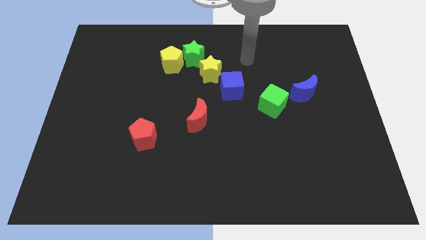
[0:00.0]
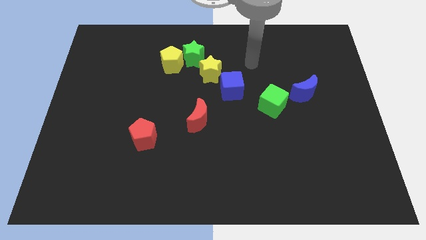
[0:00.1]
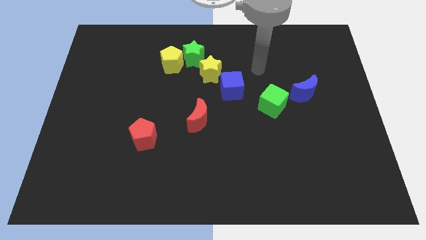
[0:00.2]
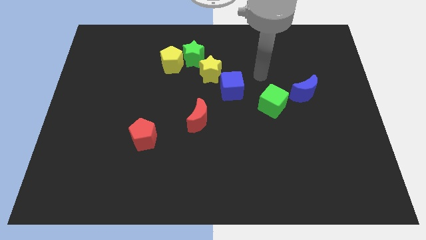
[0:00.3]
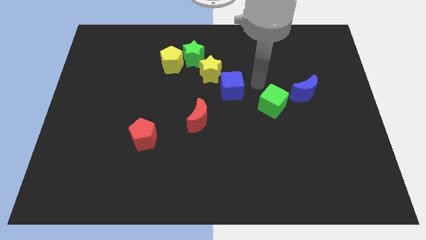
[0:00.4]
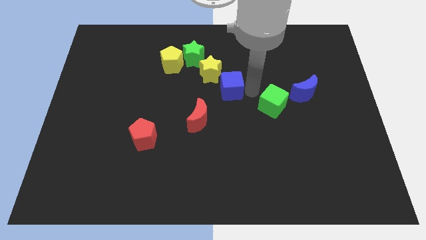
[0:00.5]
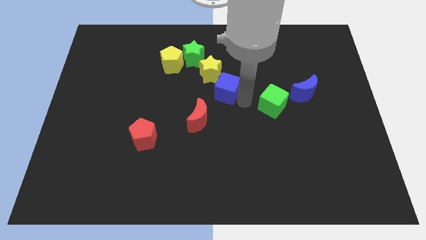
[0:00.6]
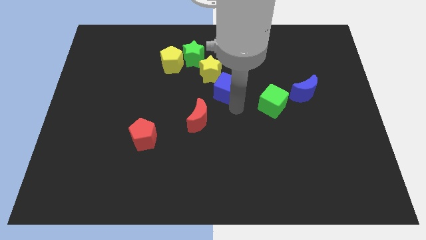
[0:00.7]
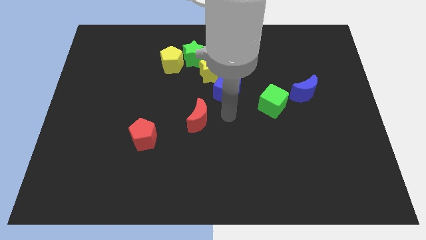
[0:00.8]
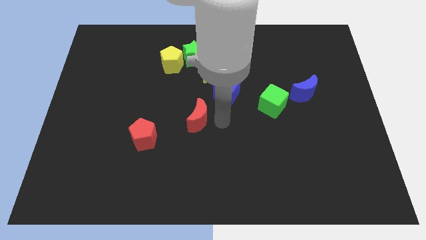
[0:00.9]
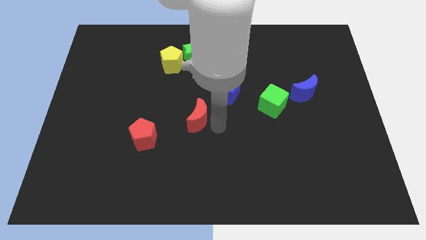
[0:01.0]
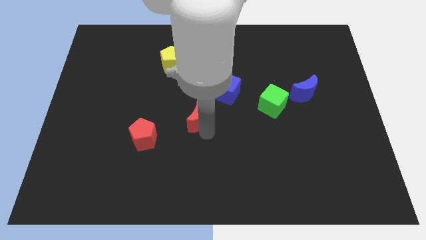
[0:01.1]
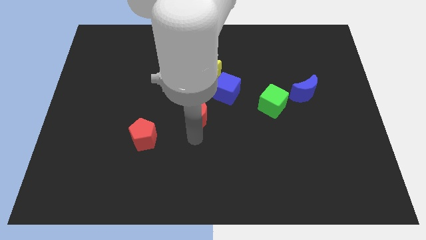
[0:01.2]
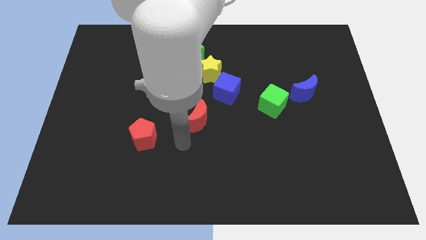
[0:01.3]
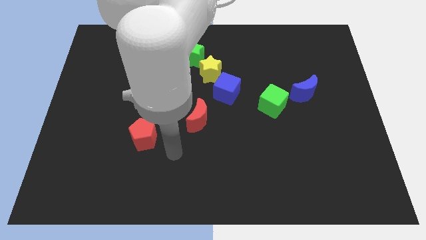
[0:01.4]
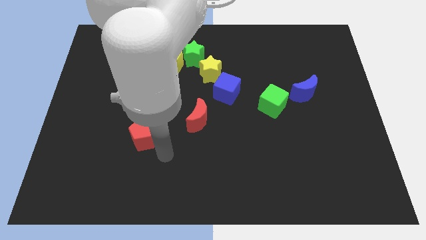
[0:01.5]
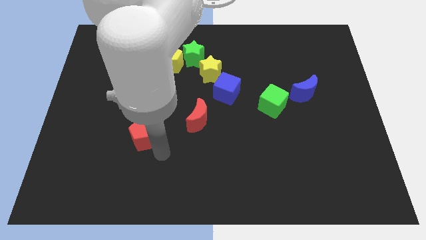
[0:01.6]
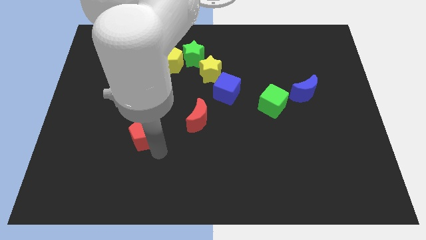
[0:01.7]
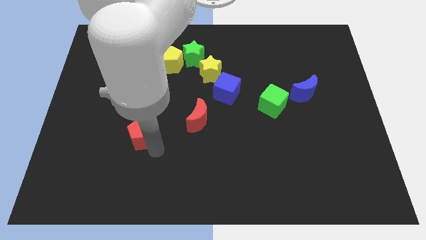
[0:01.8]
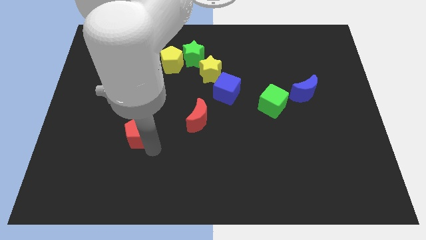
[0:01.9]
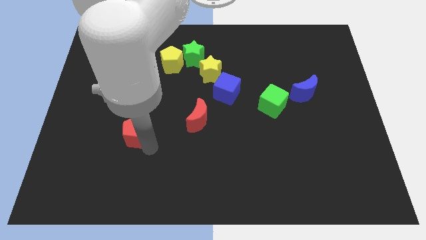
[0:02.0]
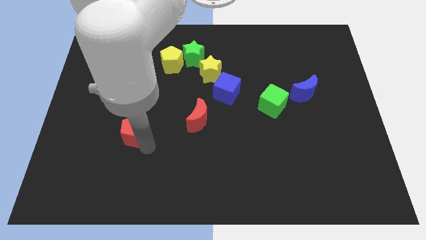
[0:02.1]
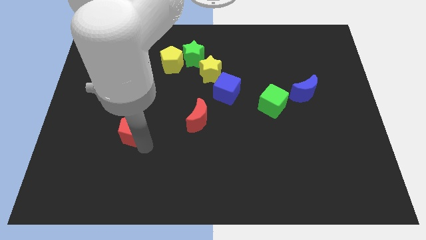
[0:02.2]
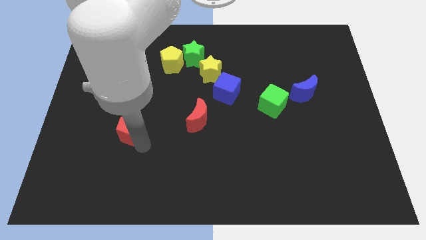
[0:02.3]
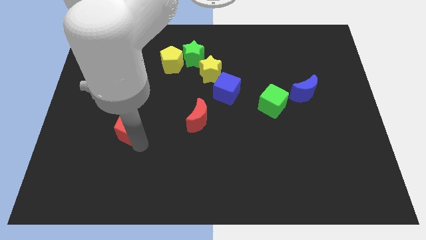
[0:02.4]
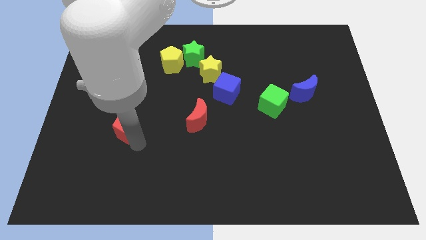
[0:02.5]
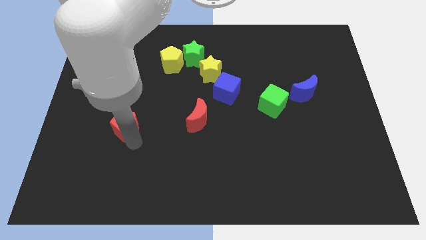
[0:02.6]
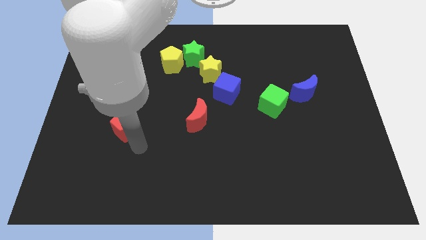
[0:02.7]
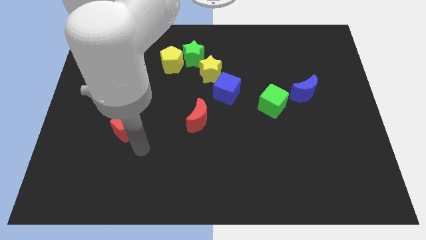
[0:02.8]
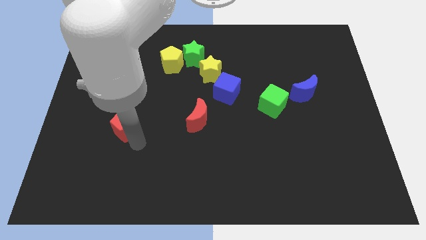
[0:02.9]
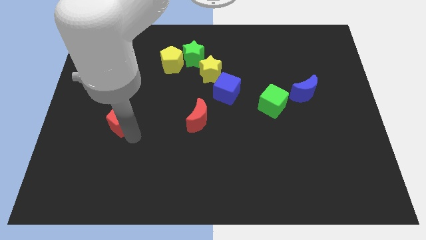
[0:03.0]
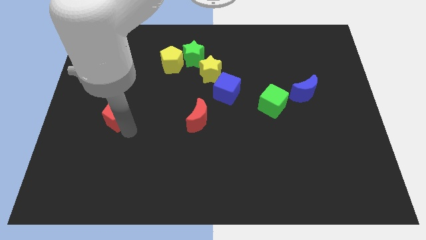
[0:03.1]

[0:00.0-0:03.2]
slightly slide the red pentagon diagonally up and to the left

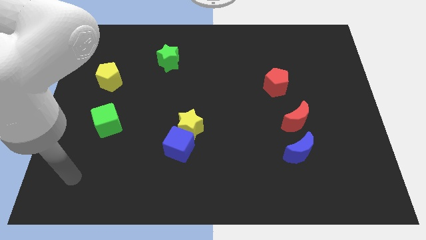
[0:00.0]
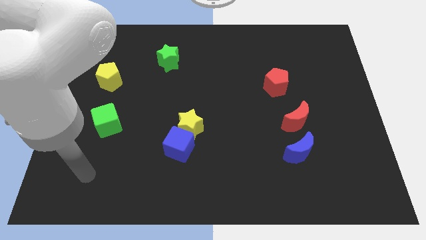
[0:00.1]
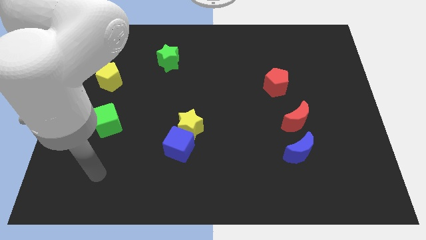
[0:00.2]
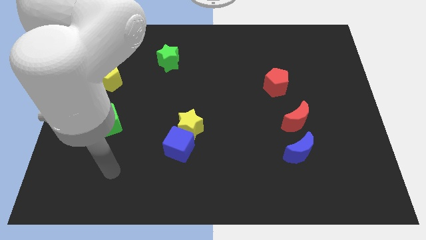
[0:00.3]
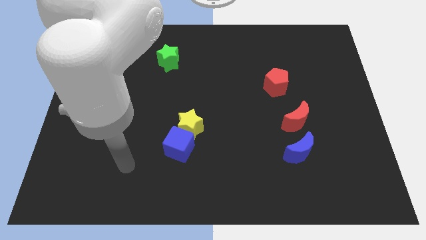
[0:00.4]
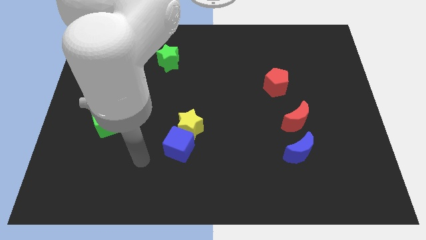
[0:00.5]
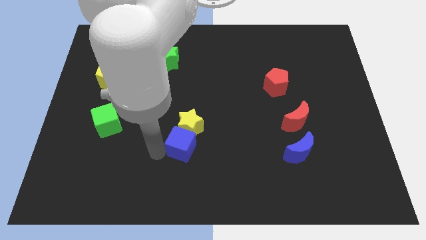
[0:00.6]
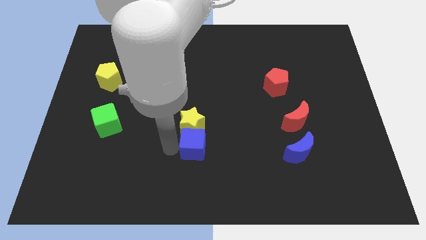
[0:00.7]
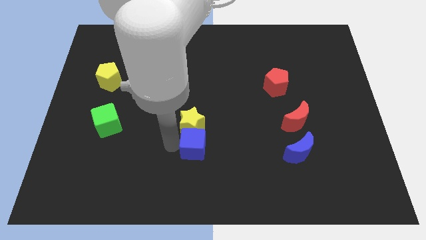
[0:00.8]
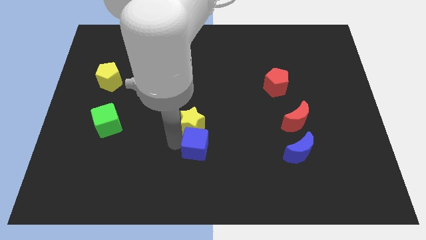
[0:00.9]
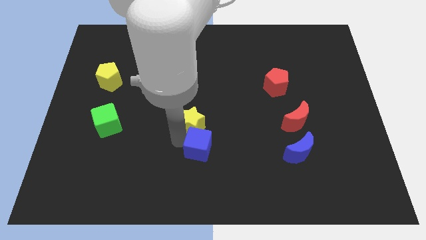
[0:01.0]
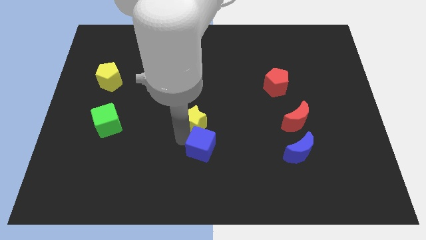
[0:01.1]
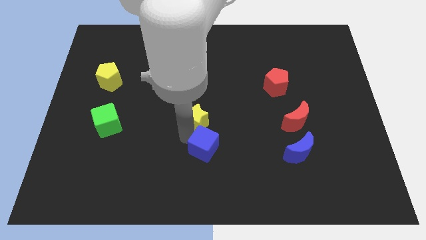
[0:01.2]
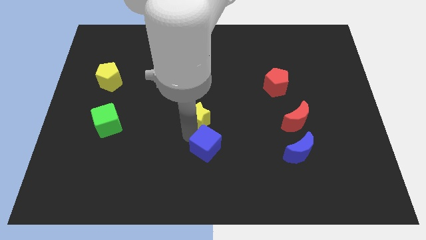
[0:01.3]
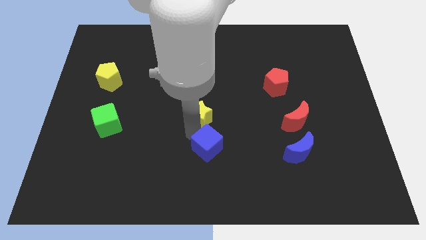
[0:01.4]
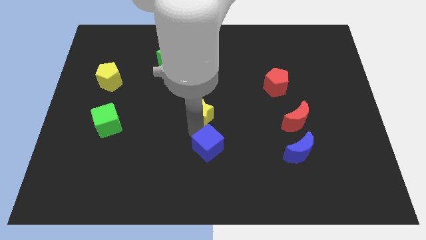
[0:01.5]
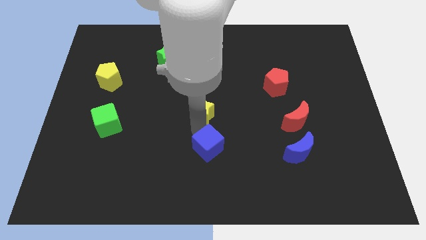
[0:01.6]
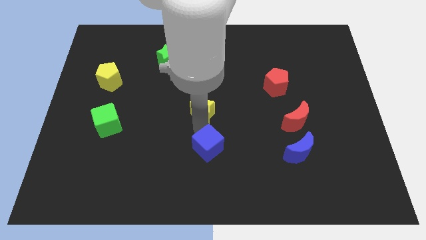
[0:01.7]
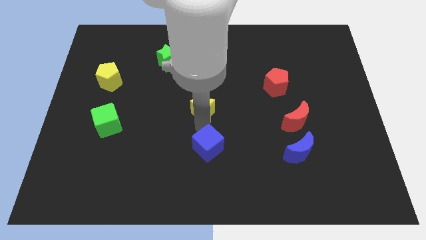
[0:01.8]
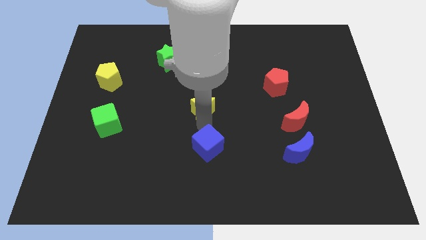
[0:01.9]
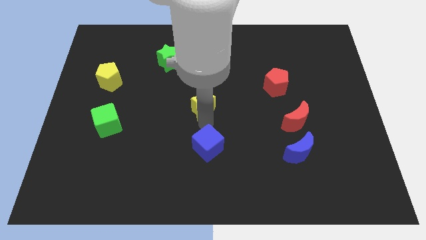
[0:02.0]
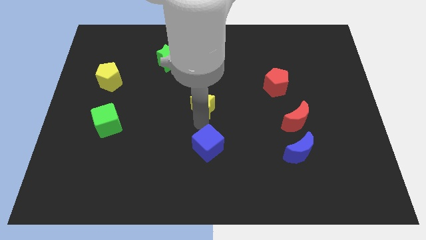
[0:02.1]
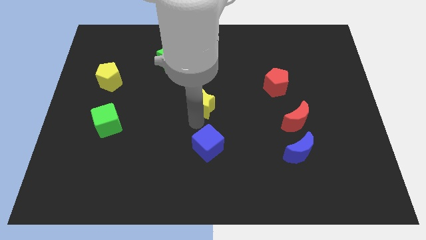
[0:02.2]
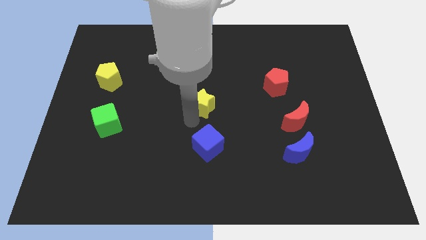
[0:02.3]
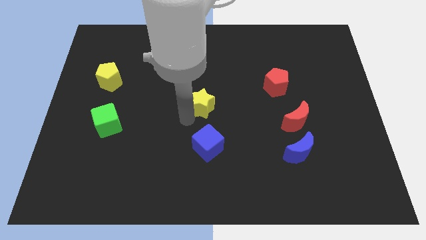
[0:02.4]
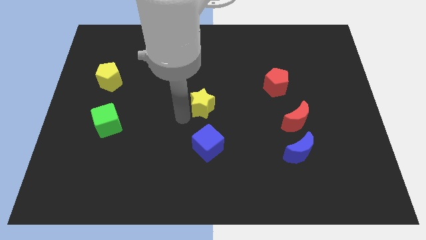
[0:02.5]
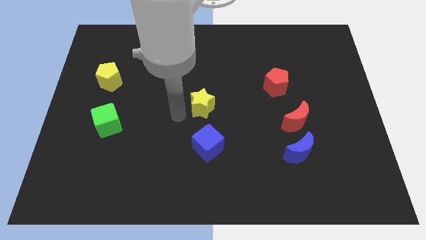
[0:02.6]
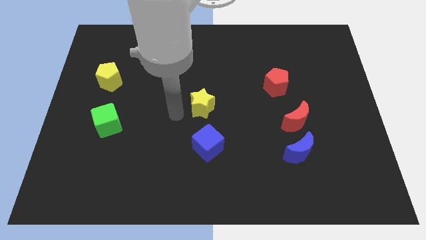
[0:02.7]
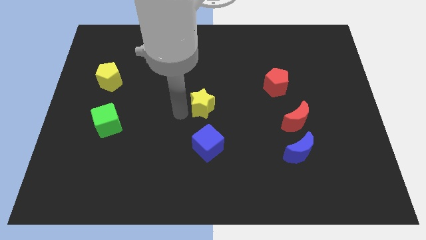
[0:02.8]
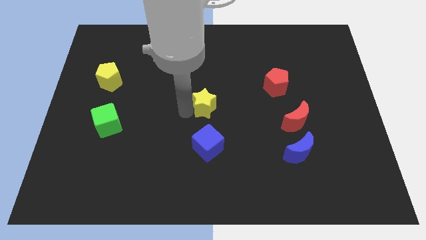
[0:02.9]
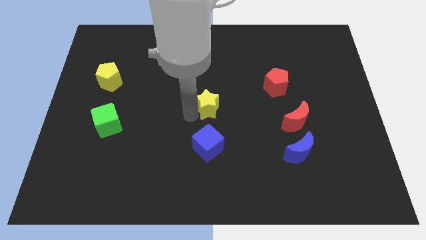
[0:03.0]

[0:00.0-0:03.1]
slightly push the yellow star up and then right

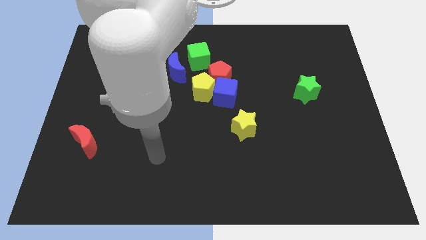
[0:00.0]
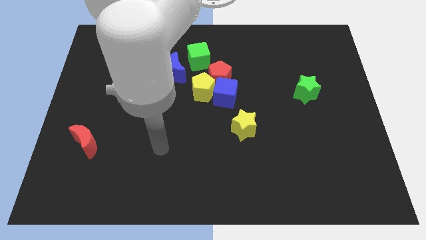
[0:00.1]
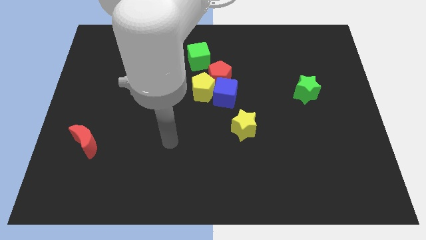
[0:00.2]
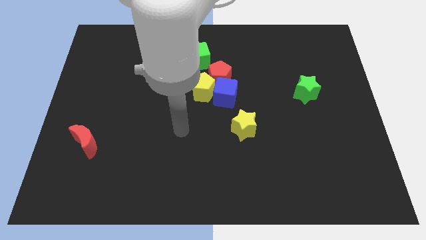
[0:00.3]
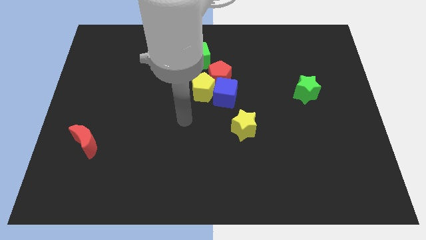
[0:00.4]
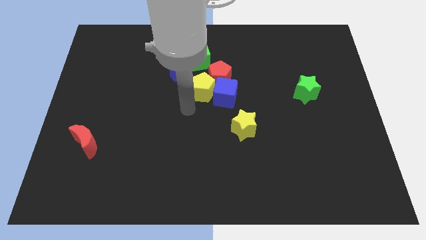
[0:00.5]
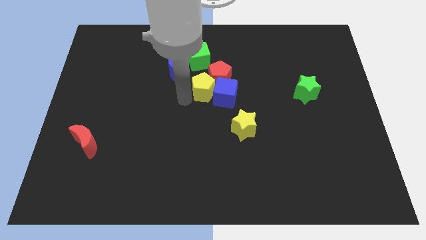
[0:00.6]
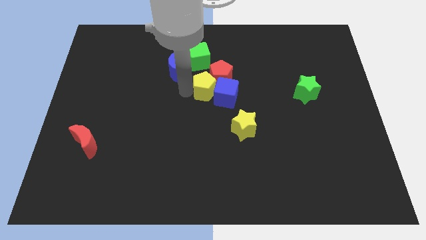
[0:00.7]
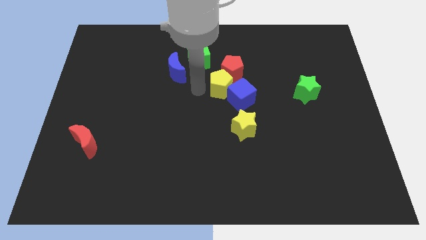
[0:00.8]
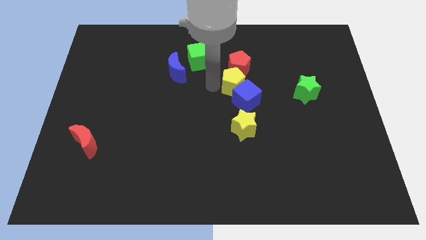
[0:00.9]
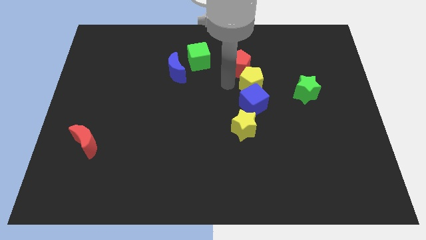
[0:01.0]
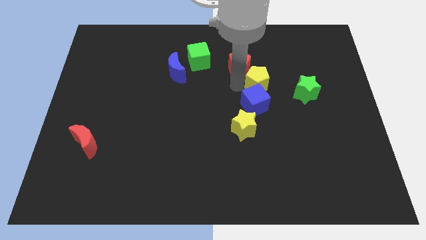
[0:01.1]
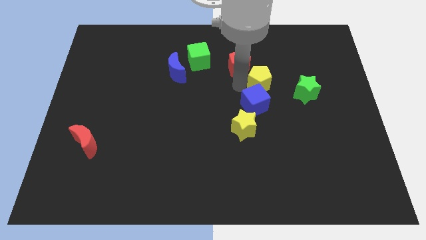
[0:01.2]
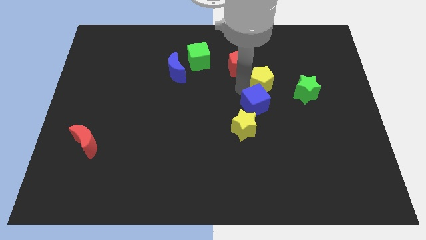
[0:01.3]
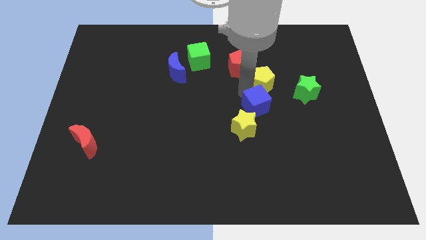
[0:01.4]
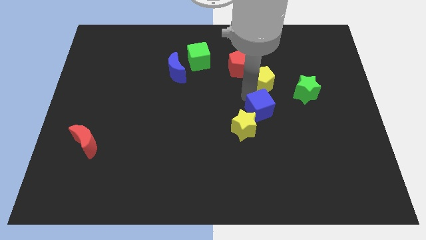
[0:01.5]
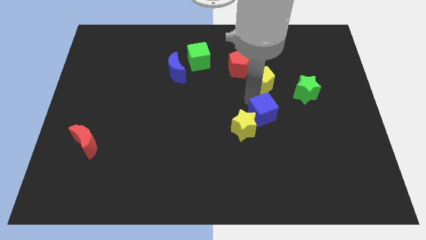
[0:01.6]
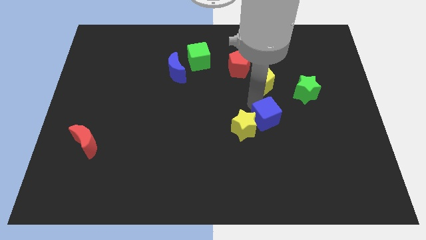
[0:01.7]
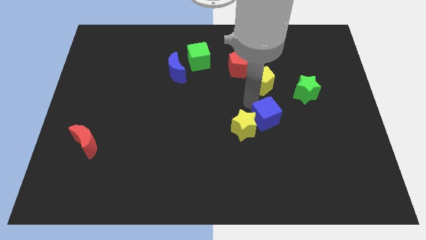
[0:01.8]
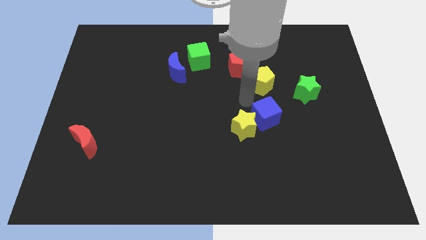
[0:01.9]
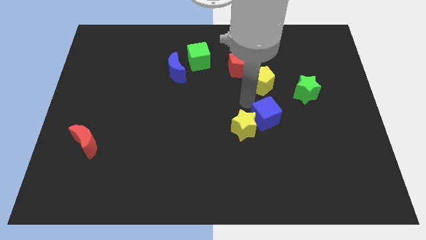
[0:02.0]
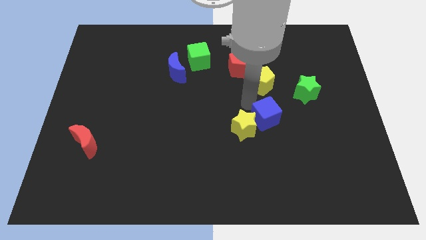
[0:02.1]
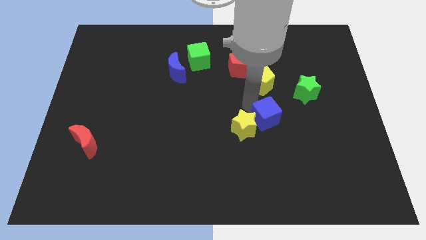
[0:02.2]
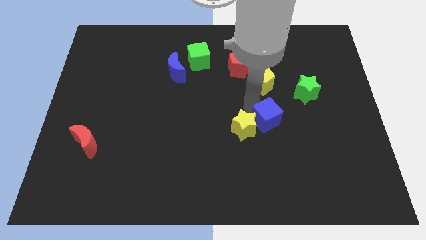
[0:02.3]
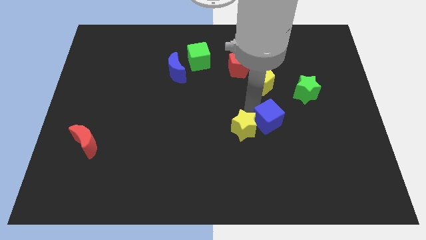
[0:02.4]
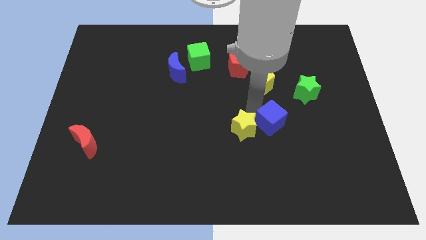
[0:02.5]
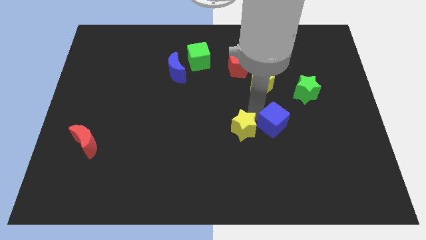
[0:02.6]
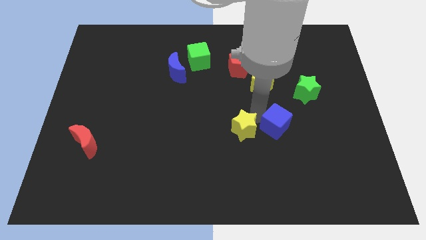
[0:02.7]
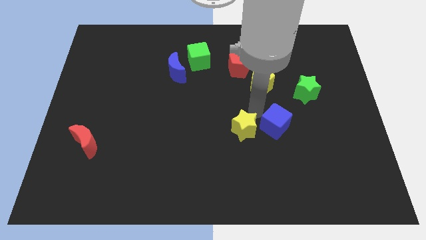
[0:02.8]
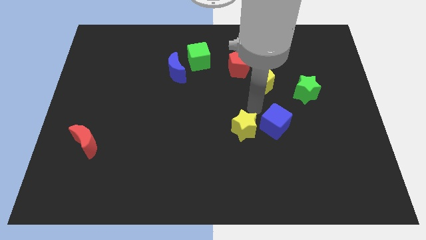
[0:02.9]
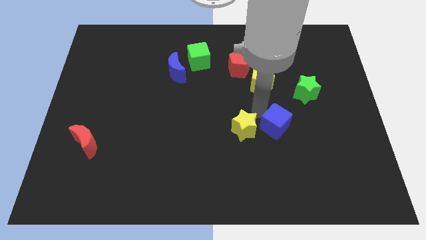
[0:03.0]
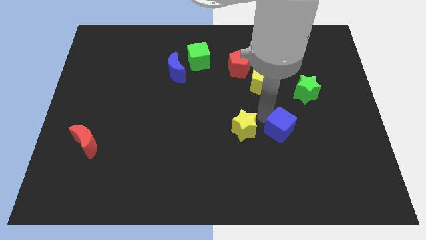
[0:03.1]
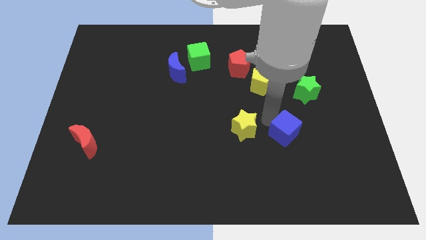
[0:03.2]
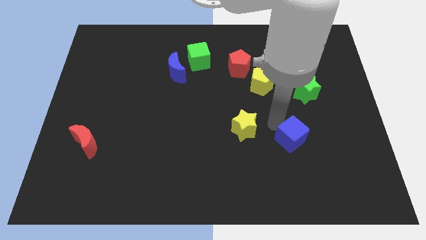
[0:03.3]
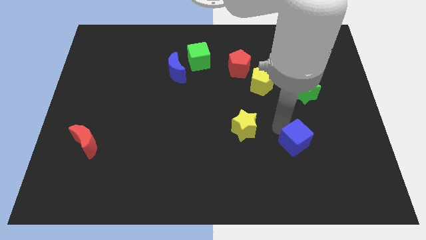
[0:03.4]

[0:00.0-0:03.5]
move the blue cube down and to the right diagonally
